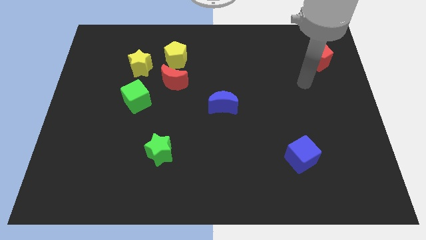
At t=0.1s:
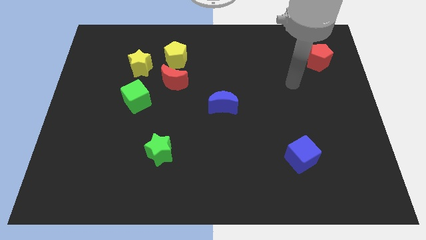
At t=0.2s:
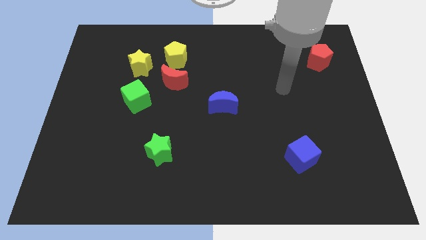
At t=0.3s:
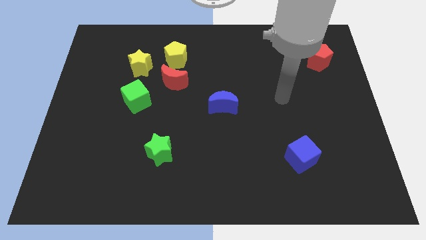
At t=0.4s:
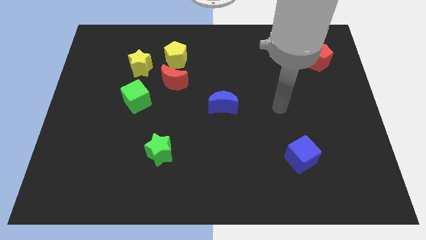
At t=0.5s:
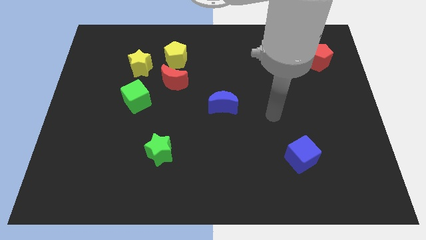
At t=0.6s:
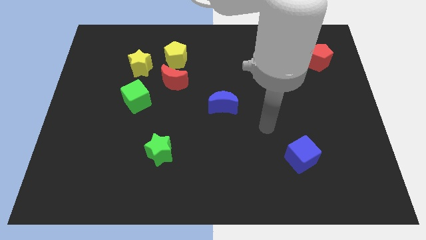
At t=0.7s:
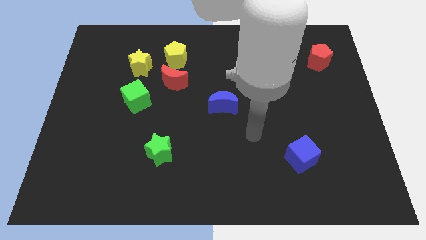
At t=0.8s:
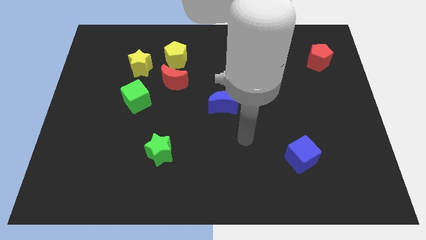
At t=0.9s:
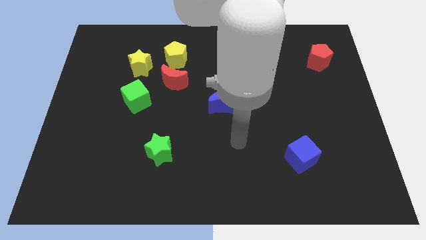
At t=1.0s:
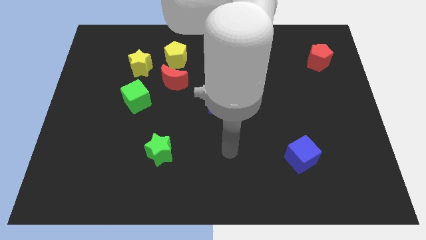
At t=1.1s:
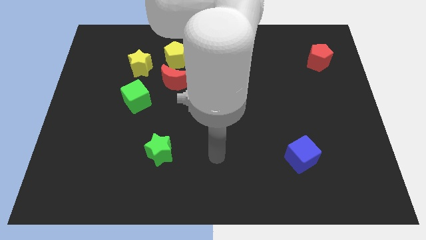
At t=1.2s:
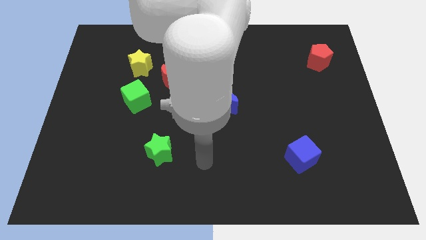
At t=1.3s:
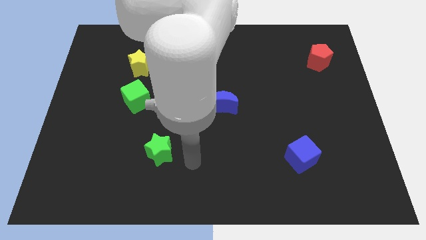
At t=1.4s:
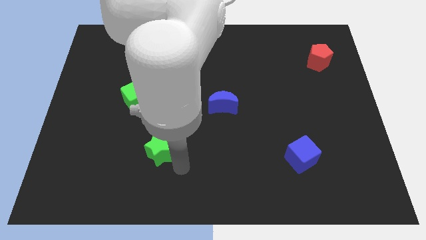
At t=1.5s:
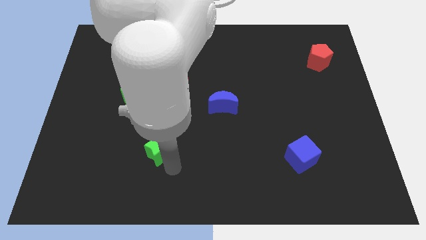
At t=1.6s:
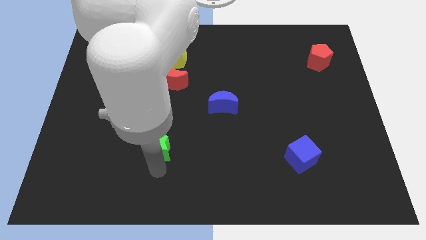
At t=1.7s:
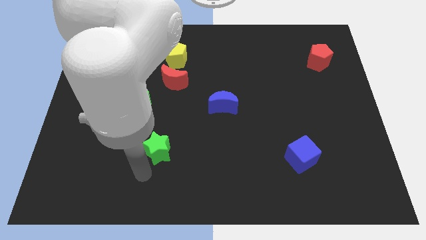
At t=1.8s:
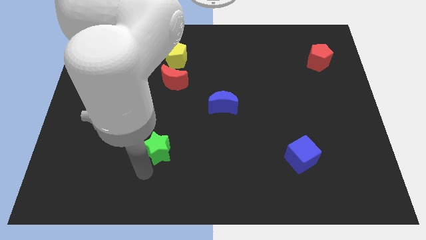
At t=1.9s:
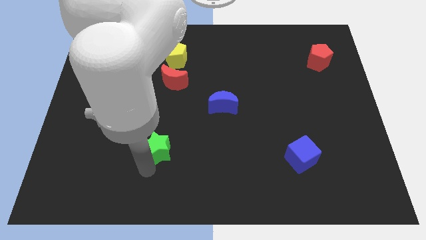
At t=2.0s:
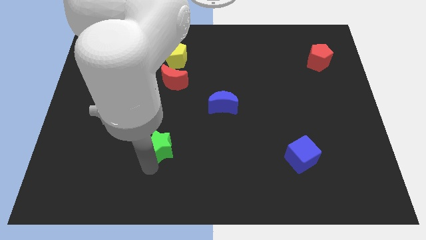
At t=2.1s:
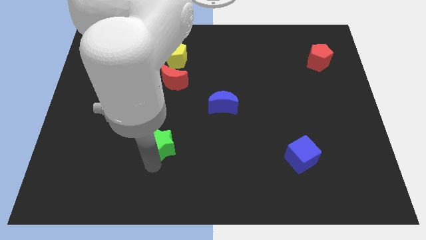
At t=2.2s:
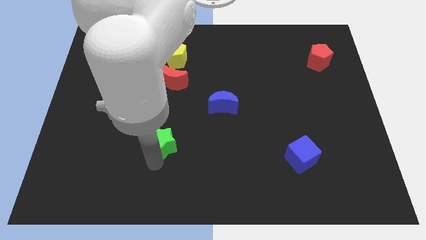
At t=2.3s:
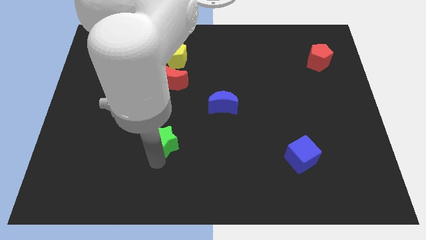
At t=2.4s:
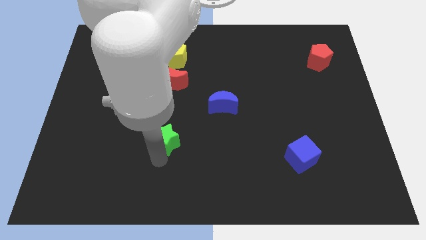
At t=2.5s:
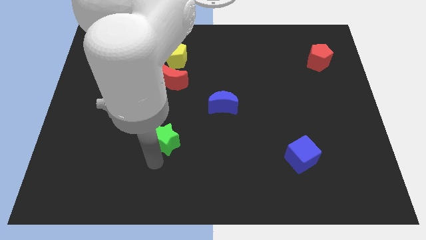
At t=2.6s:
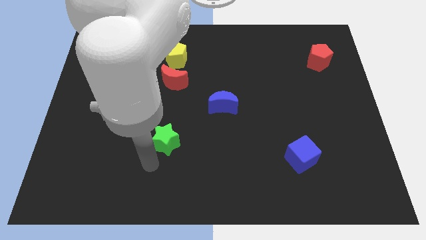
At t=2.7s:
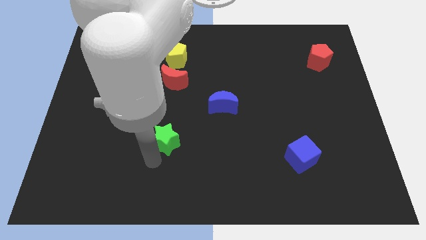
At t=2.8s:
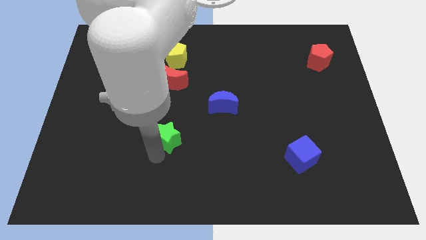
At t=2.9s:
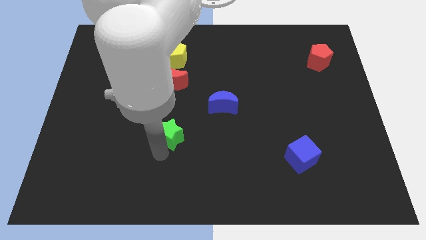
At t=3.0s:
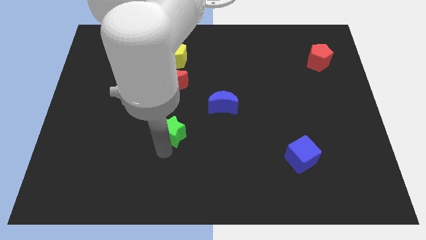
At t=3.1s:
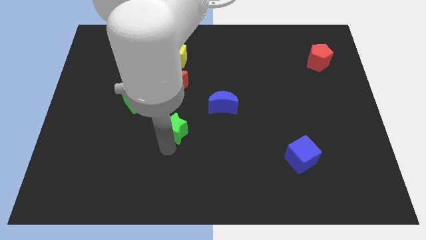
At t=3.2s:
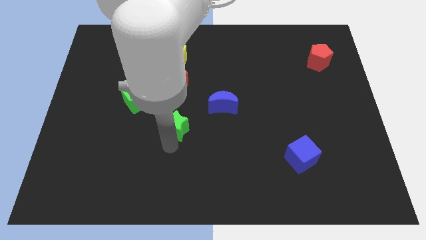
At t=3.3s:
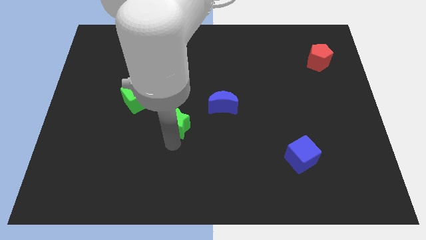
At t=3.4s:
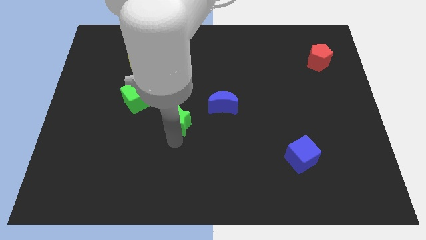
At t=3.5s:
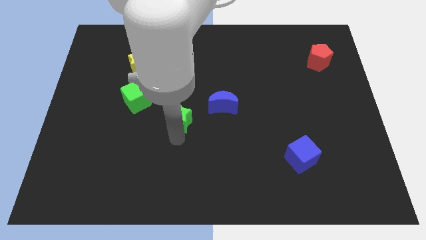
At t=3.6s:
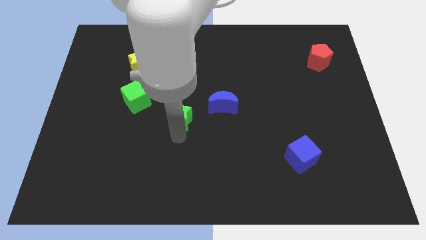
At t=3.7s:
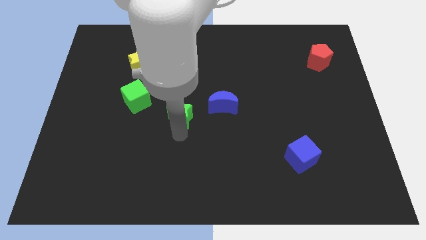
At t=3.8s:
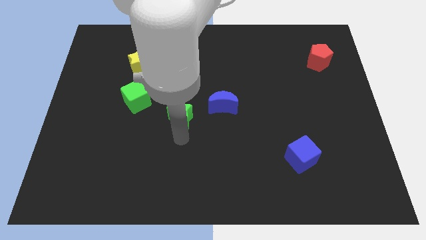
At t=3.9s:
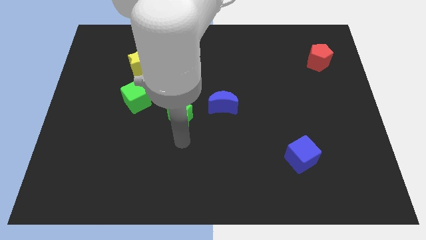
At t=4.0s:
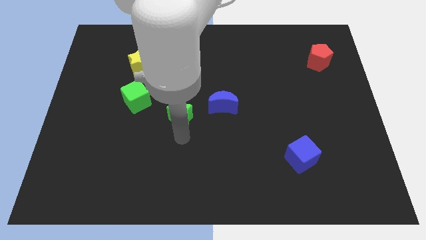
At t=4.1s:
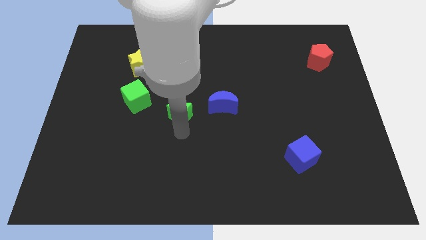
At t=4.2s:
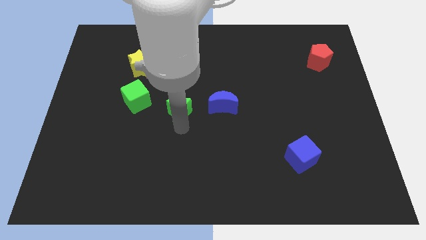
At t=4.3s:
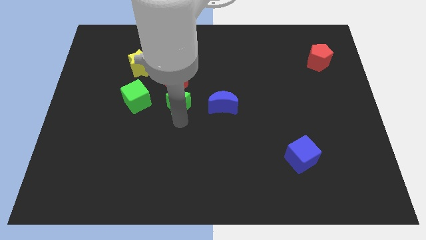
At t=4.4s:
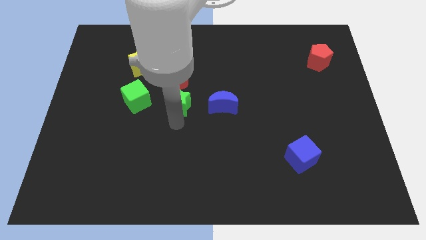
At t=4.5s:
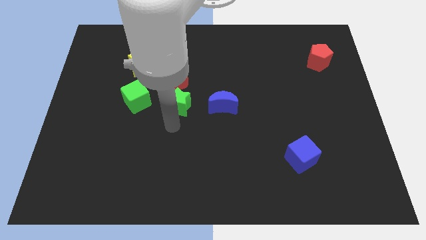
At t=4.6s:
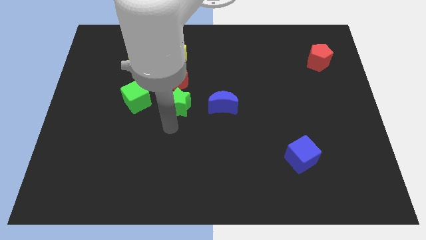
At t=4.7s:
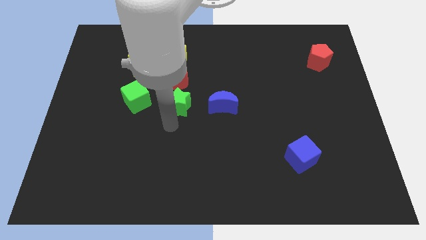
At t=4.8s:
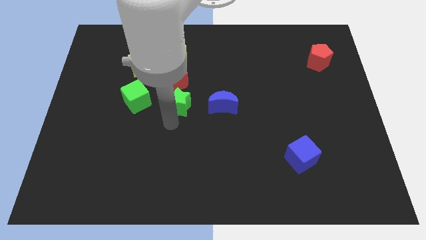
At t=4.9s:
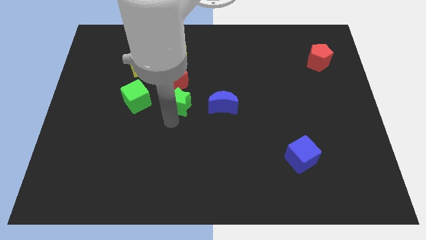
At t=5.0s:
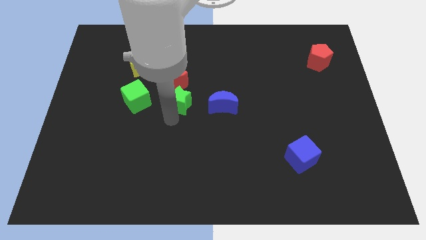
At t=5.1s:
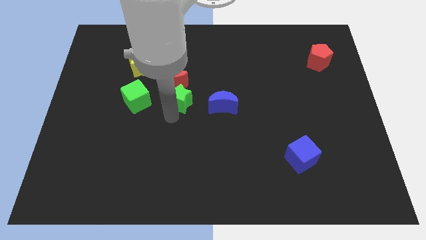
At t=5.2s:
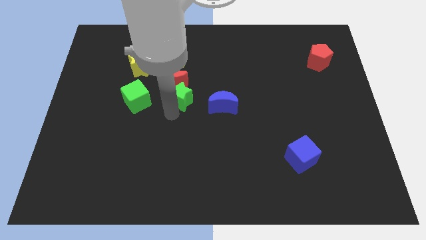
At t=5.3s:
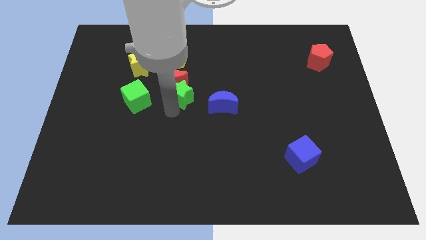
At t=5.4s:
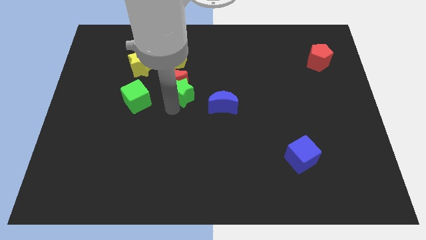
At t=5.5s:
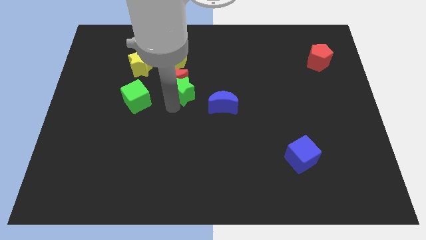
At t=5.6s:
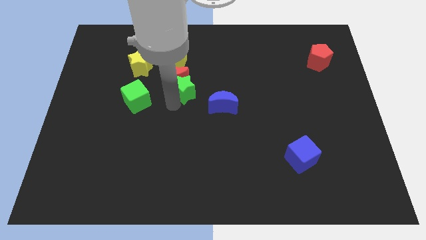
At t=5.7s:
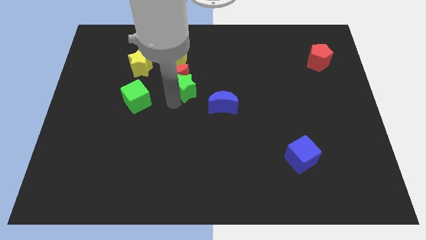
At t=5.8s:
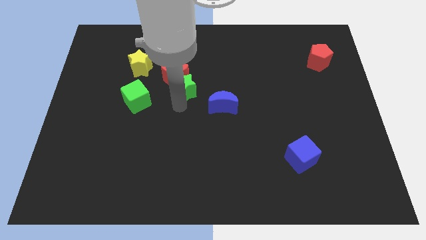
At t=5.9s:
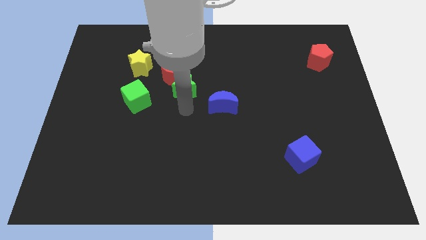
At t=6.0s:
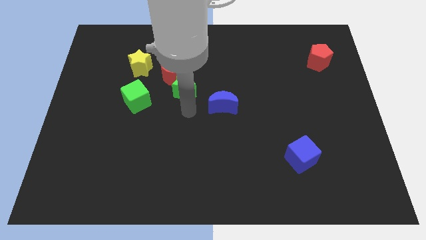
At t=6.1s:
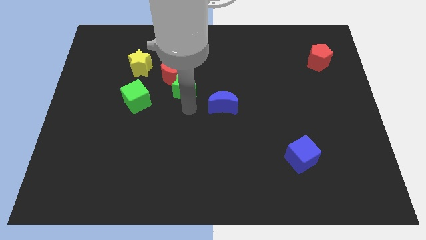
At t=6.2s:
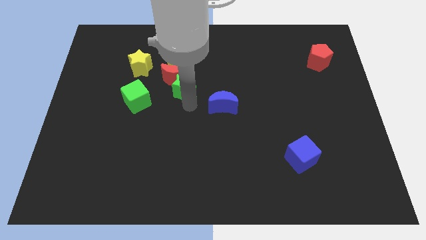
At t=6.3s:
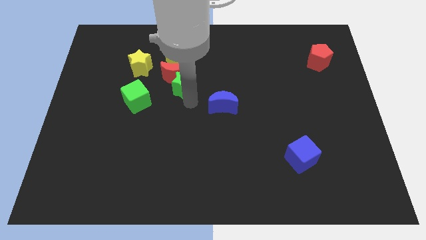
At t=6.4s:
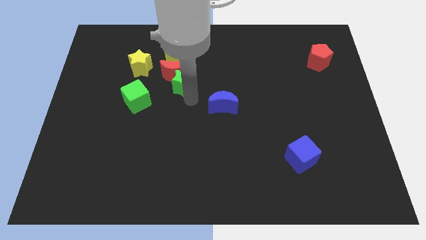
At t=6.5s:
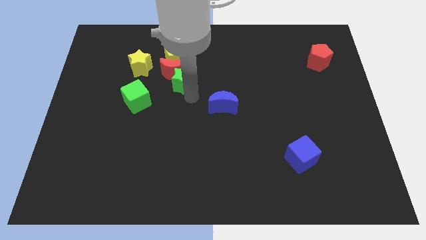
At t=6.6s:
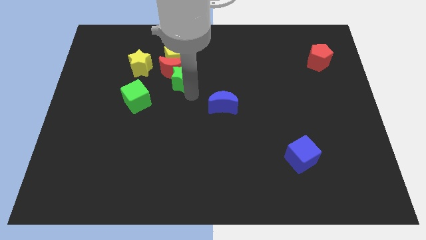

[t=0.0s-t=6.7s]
slide the green star to the right of the yellow star

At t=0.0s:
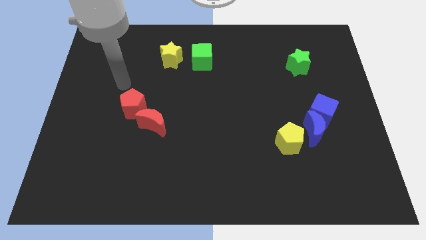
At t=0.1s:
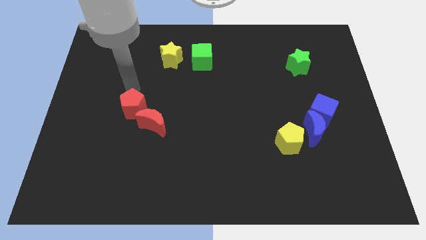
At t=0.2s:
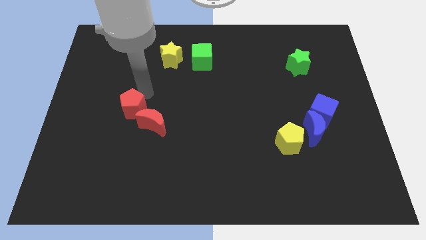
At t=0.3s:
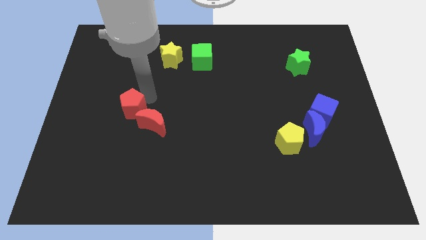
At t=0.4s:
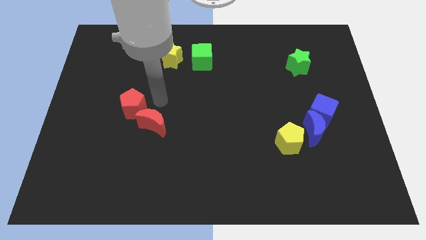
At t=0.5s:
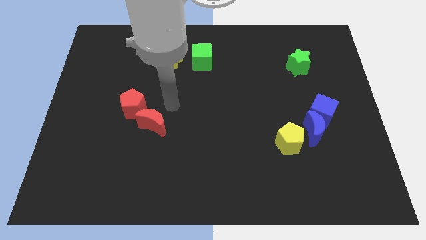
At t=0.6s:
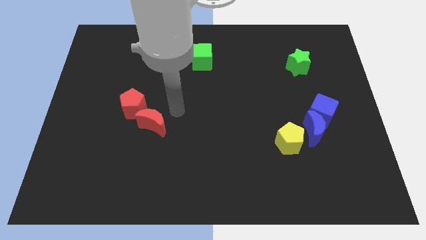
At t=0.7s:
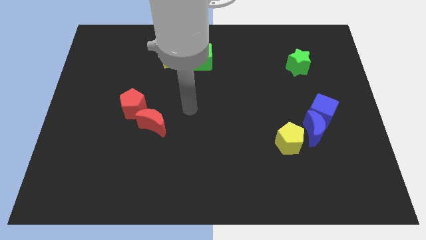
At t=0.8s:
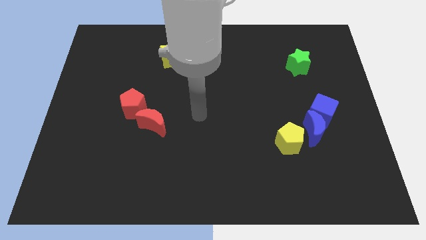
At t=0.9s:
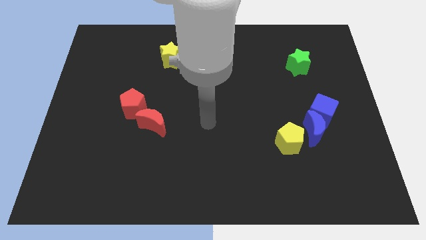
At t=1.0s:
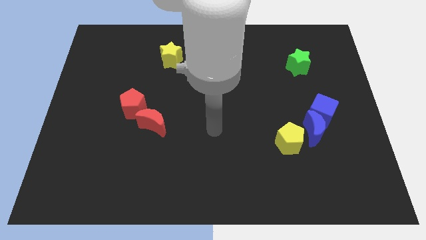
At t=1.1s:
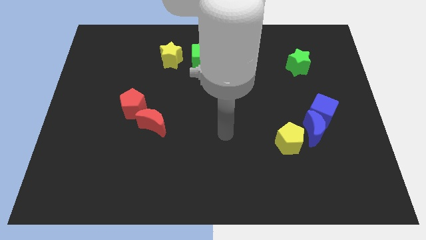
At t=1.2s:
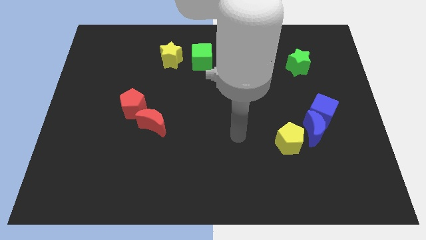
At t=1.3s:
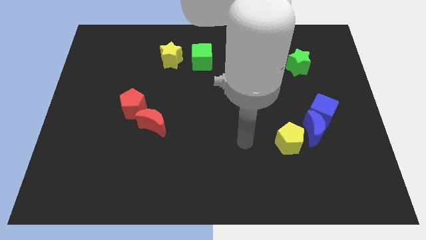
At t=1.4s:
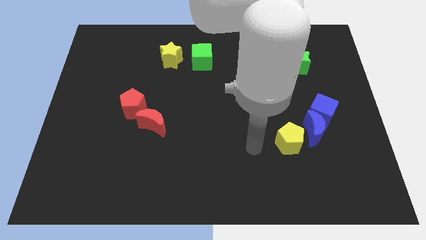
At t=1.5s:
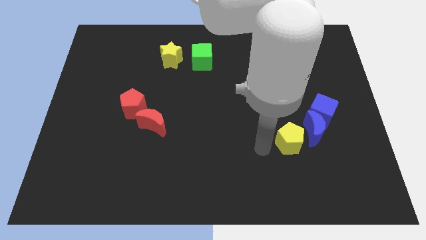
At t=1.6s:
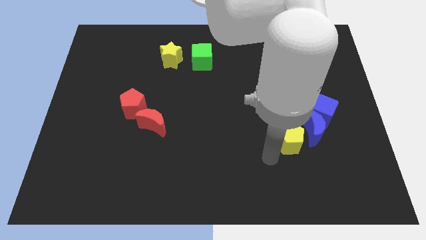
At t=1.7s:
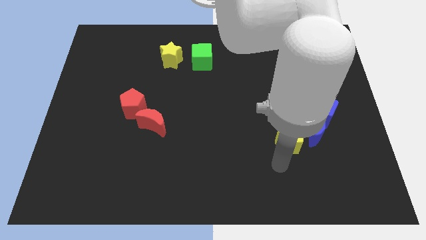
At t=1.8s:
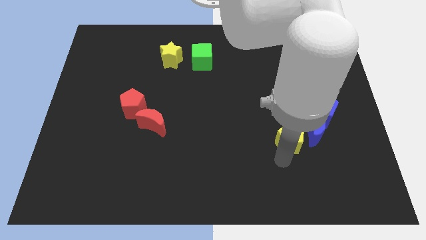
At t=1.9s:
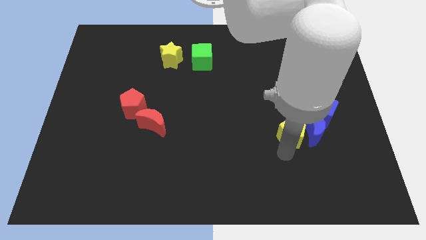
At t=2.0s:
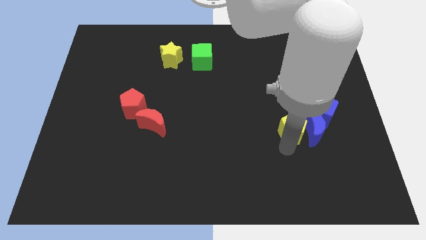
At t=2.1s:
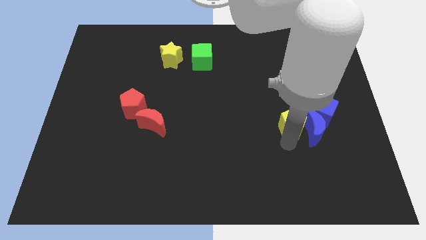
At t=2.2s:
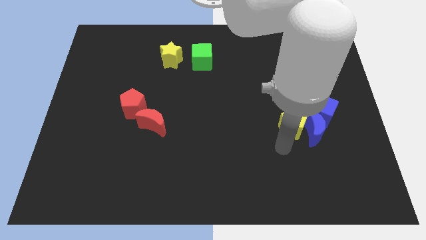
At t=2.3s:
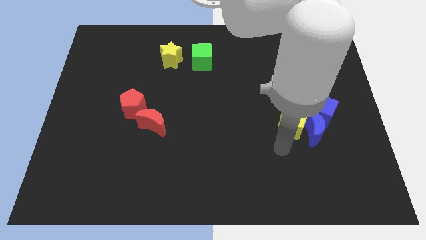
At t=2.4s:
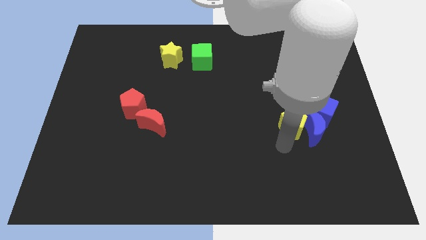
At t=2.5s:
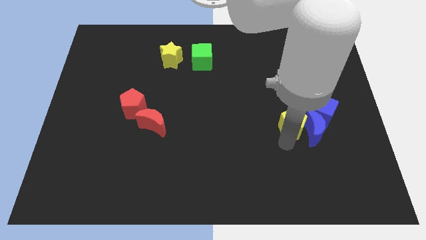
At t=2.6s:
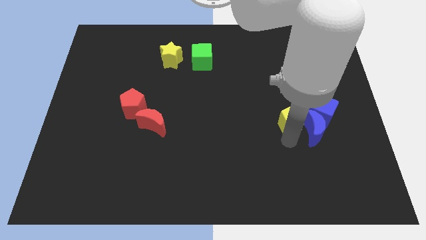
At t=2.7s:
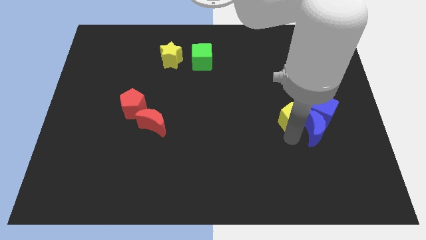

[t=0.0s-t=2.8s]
move the yellow pentagon above the blue moon
